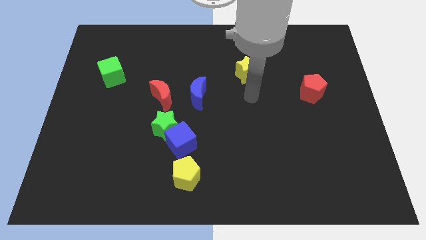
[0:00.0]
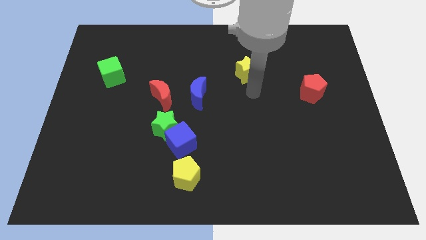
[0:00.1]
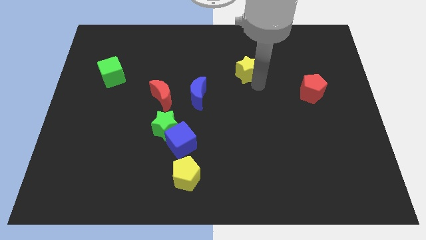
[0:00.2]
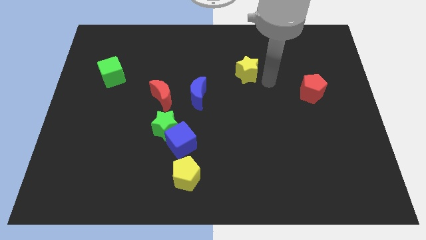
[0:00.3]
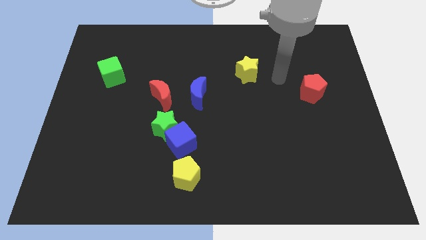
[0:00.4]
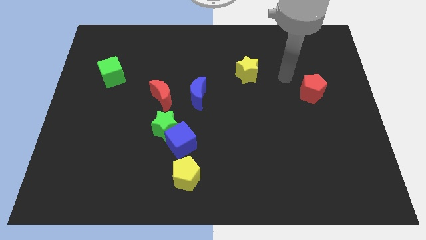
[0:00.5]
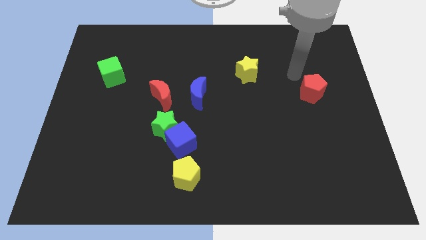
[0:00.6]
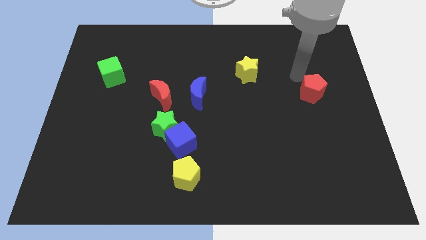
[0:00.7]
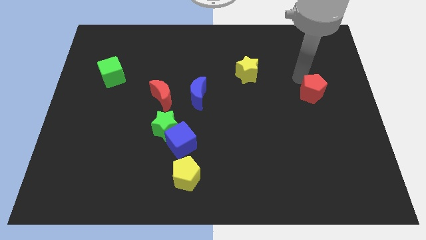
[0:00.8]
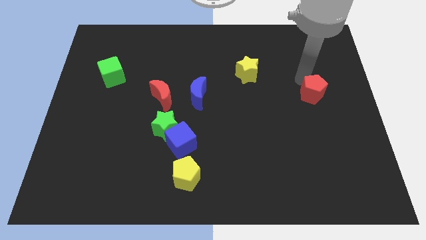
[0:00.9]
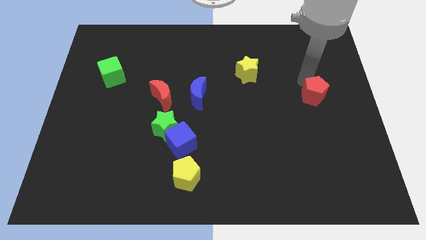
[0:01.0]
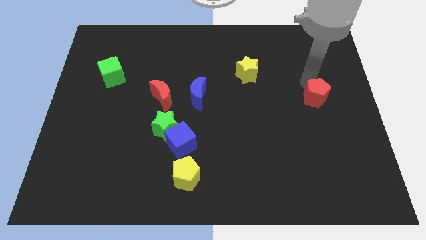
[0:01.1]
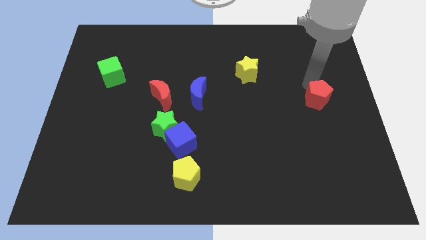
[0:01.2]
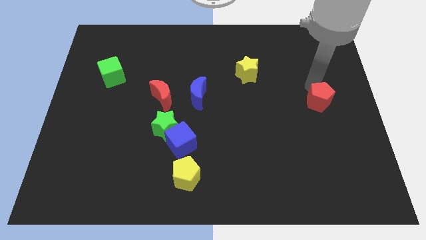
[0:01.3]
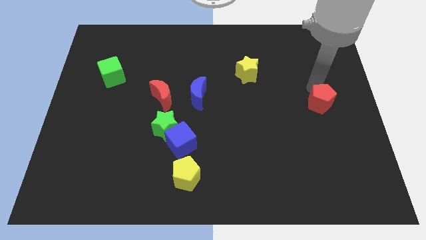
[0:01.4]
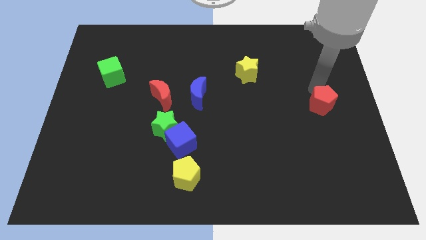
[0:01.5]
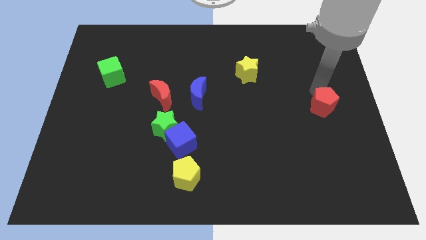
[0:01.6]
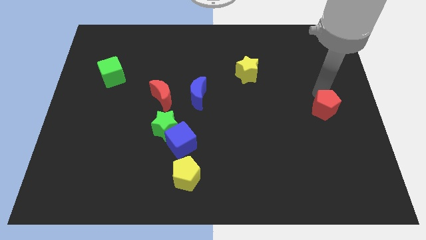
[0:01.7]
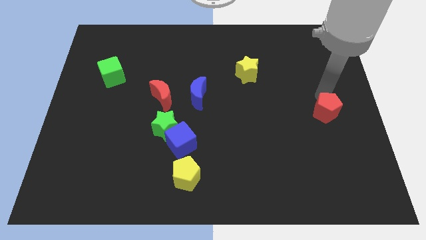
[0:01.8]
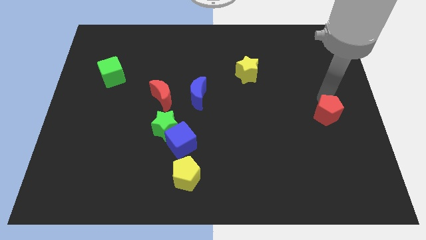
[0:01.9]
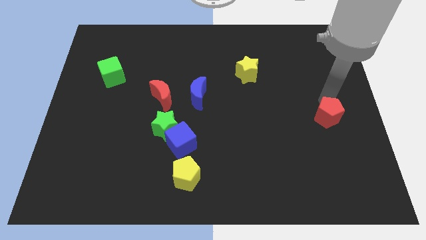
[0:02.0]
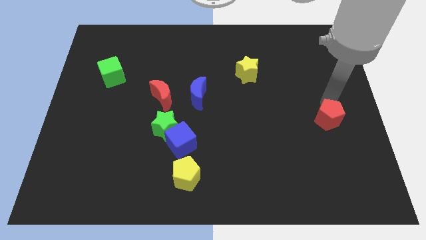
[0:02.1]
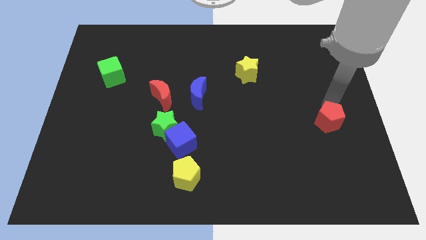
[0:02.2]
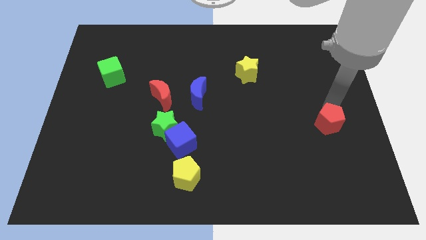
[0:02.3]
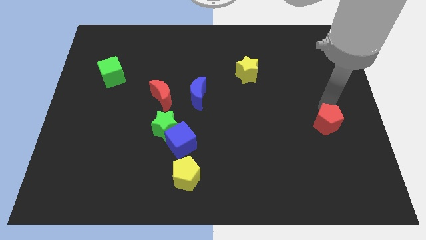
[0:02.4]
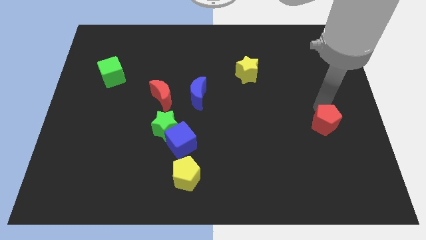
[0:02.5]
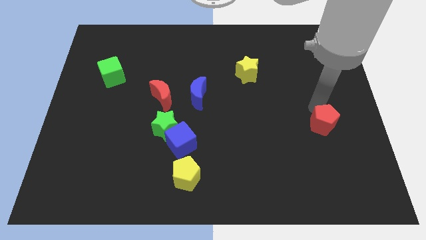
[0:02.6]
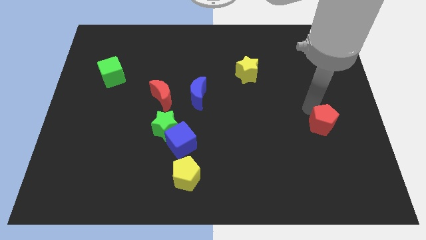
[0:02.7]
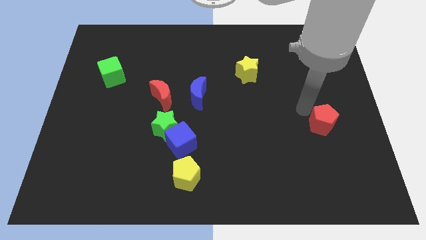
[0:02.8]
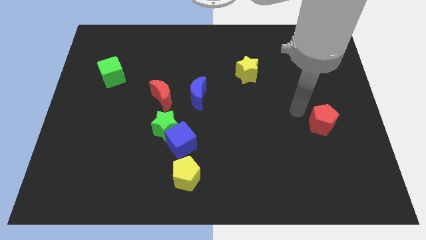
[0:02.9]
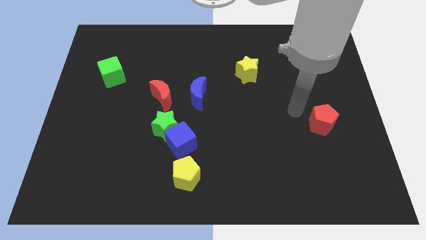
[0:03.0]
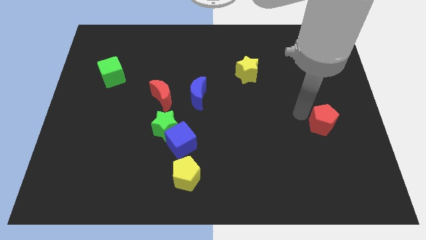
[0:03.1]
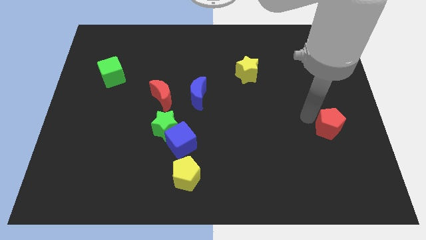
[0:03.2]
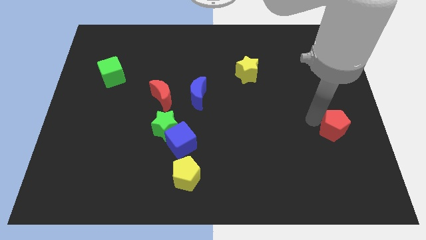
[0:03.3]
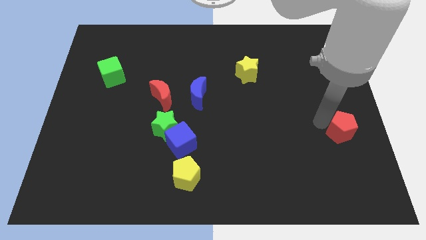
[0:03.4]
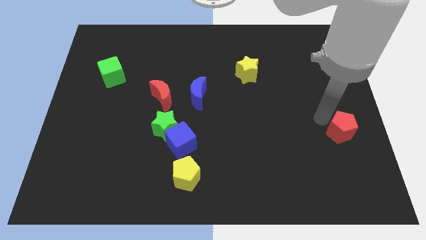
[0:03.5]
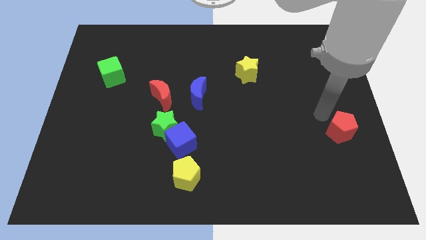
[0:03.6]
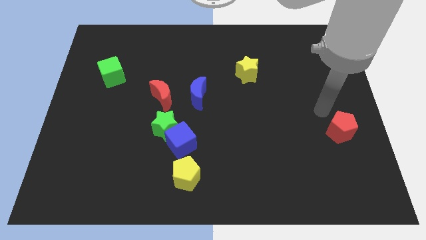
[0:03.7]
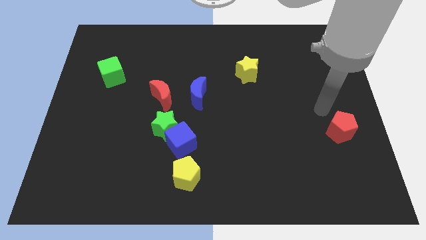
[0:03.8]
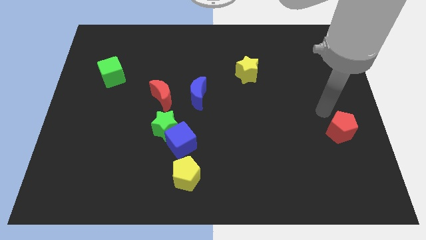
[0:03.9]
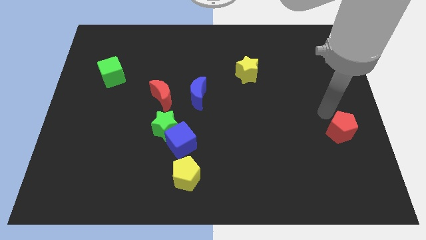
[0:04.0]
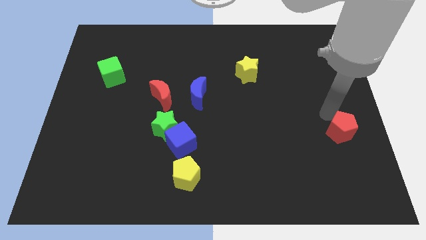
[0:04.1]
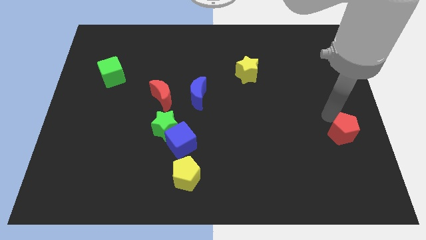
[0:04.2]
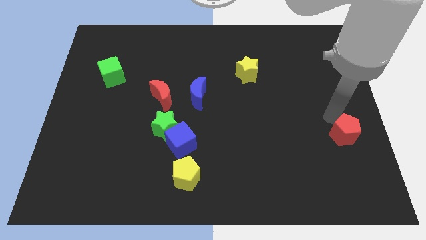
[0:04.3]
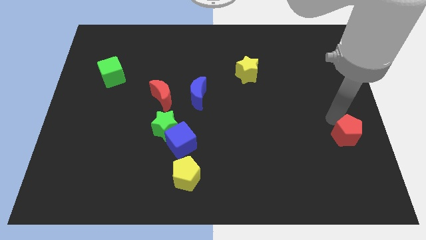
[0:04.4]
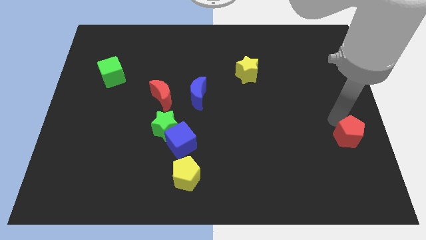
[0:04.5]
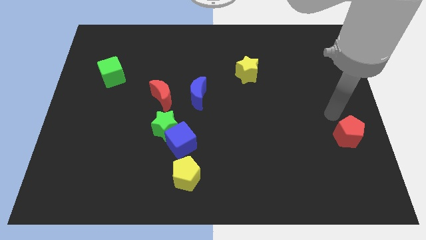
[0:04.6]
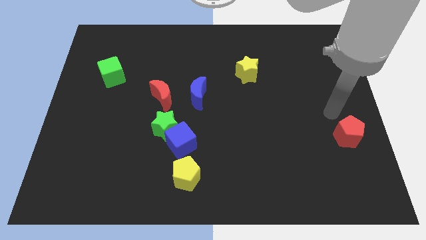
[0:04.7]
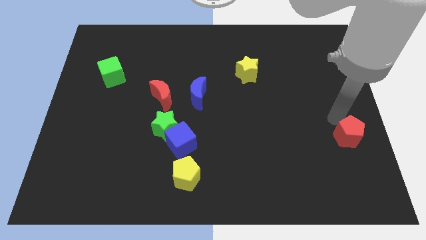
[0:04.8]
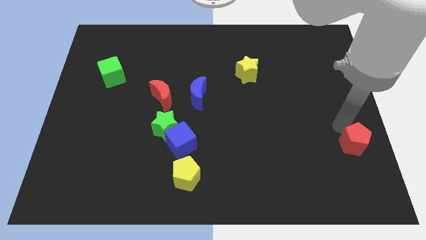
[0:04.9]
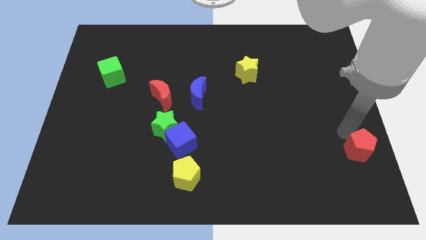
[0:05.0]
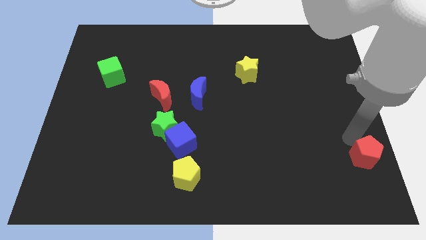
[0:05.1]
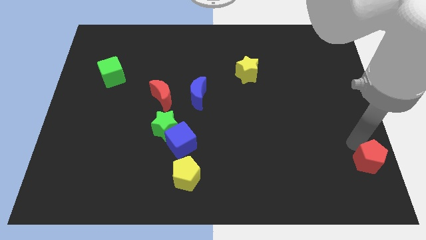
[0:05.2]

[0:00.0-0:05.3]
move the red pentagon to the bottom right of the board

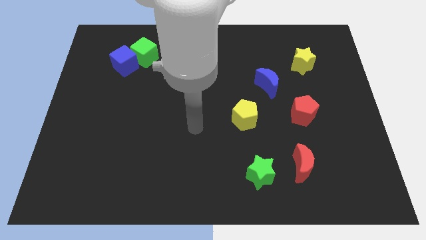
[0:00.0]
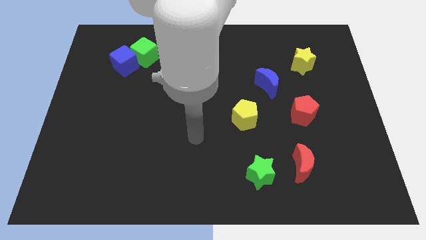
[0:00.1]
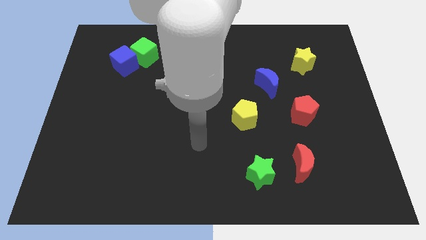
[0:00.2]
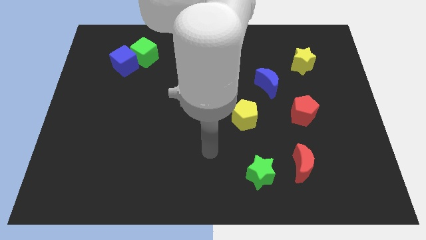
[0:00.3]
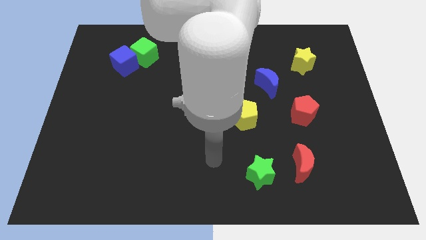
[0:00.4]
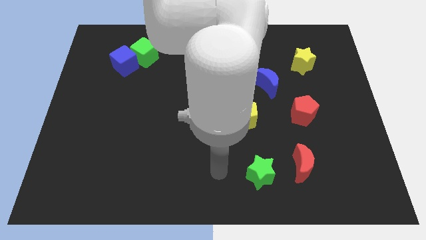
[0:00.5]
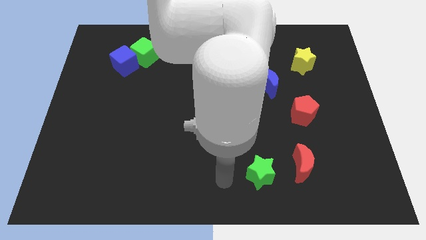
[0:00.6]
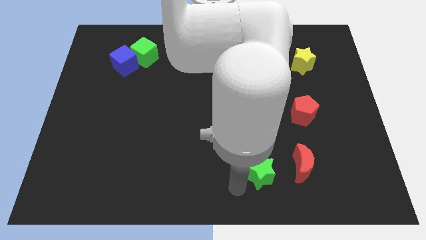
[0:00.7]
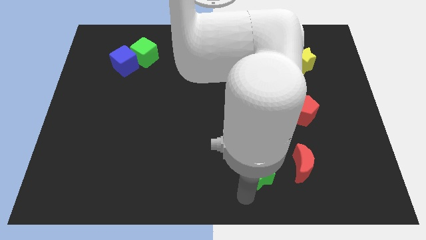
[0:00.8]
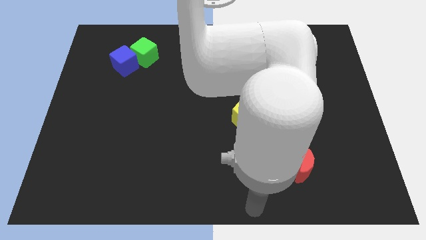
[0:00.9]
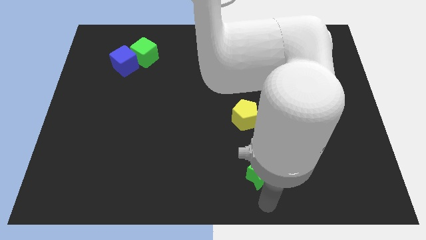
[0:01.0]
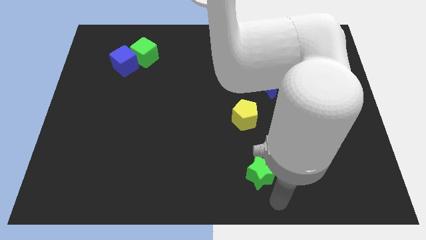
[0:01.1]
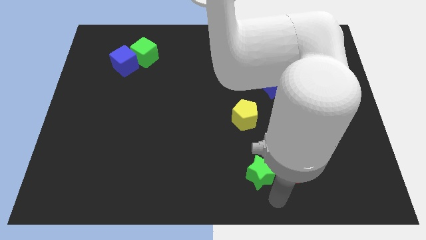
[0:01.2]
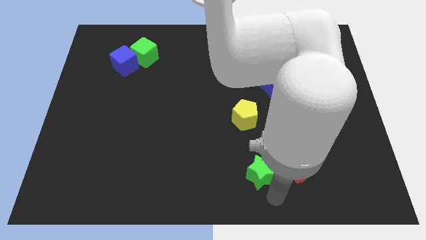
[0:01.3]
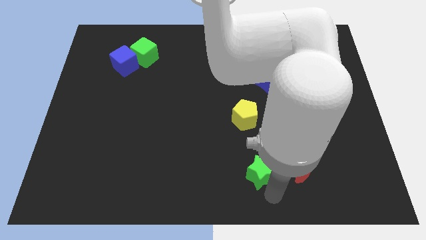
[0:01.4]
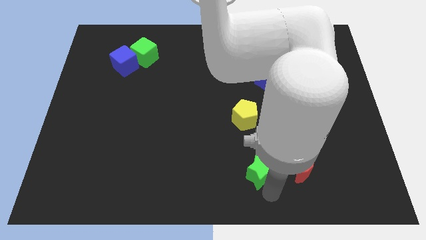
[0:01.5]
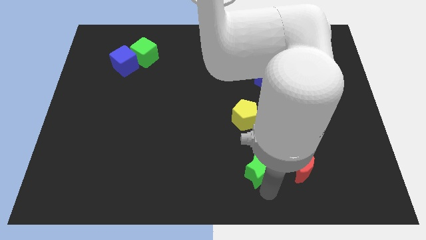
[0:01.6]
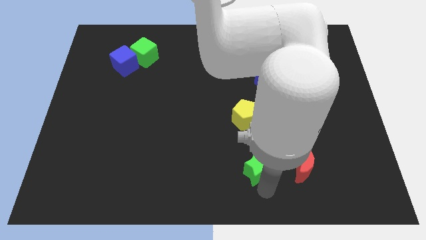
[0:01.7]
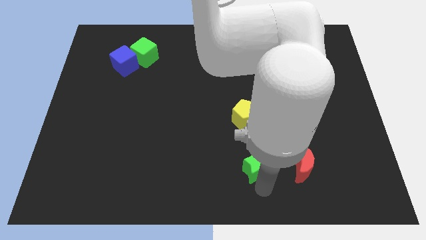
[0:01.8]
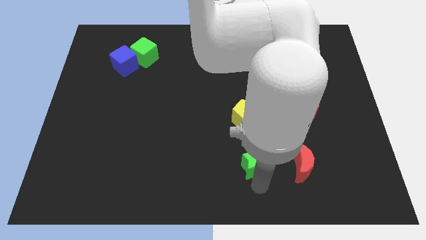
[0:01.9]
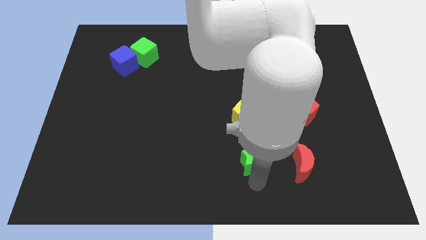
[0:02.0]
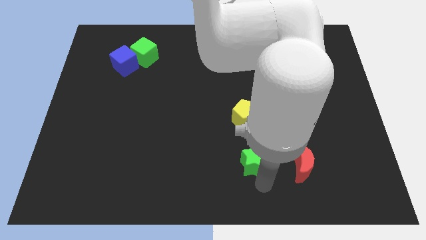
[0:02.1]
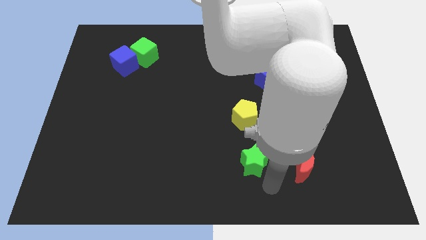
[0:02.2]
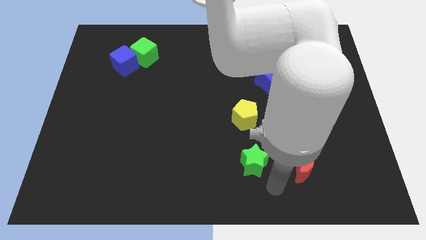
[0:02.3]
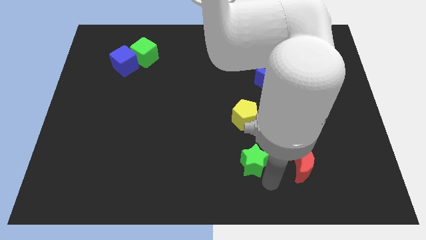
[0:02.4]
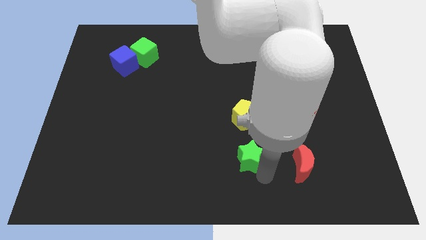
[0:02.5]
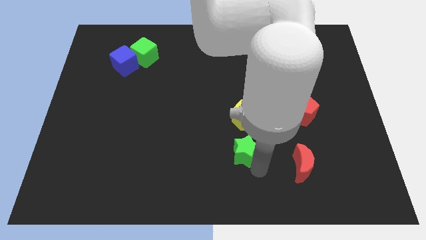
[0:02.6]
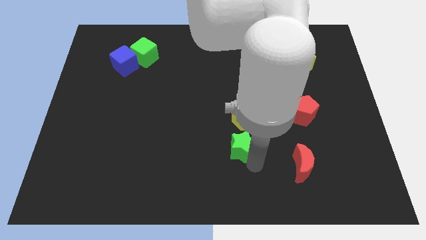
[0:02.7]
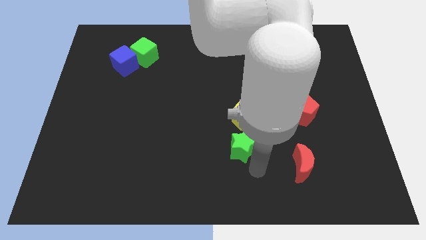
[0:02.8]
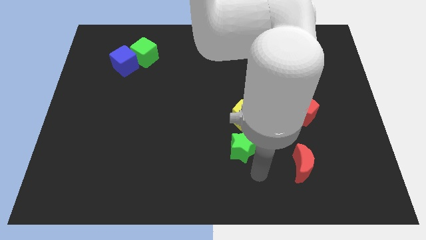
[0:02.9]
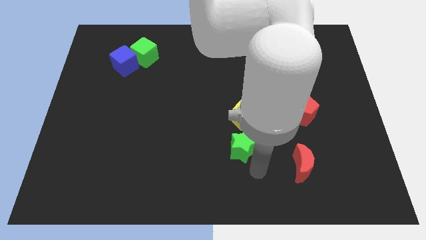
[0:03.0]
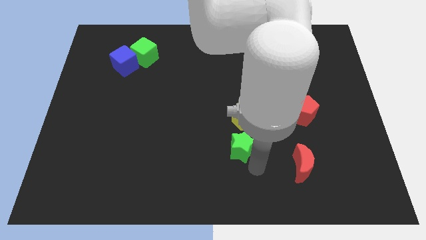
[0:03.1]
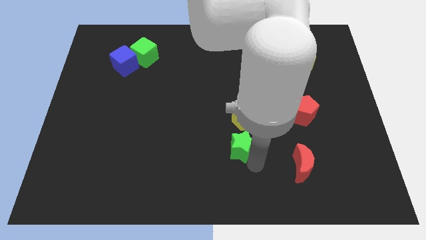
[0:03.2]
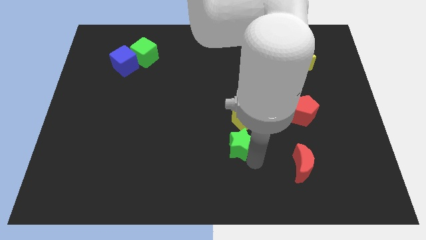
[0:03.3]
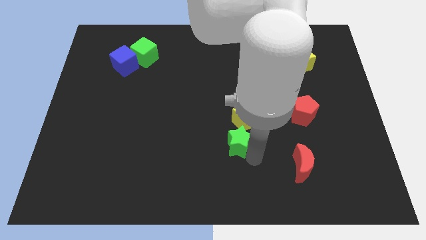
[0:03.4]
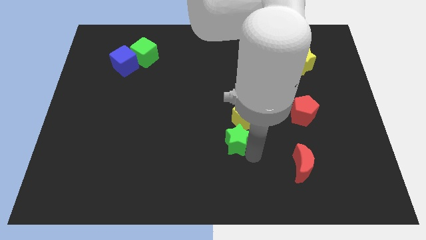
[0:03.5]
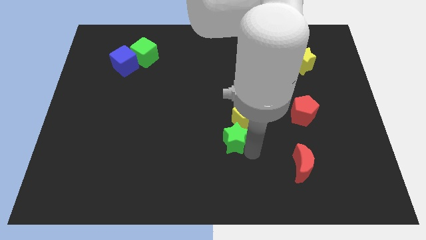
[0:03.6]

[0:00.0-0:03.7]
move the green star to the center
